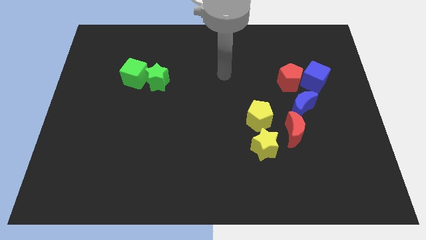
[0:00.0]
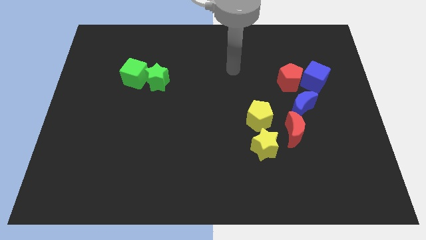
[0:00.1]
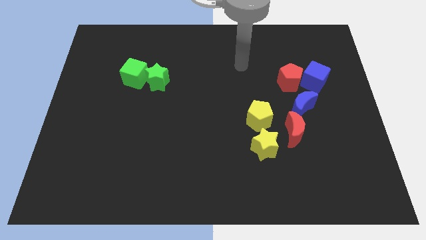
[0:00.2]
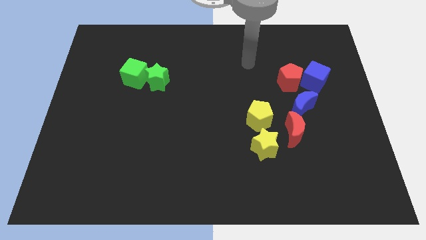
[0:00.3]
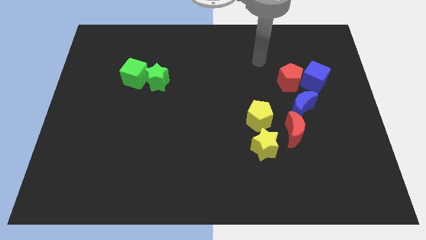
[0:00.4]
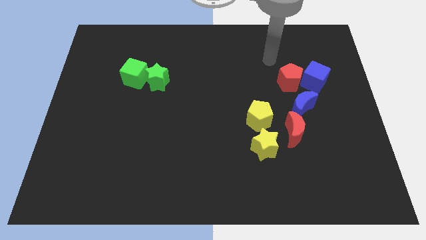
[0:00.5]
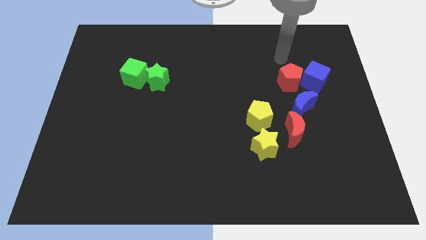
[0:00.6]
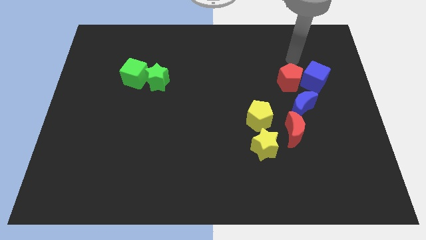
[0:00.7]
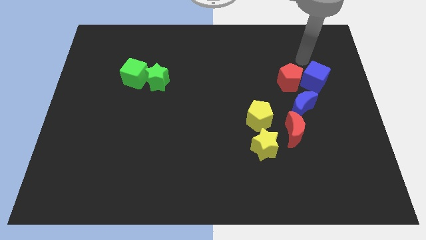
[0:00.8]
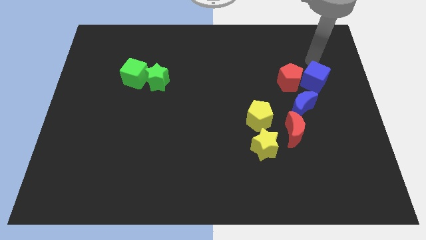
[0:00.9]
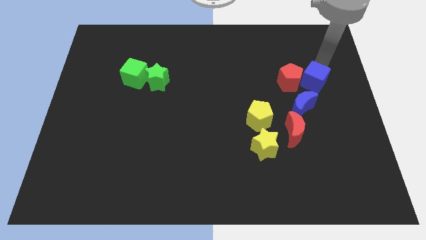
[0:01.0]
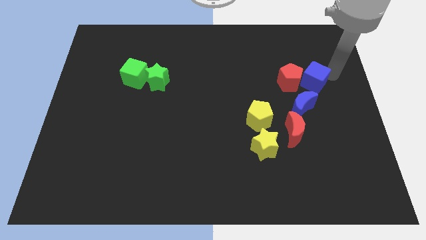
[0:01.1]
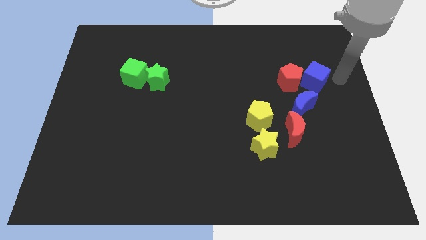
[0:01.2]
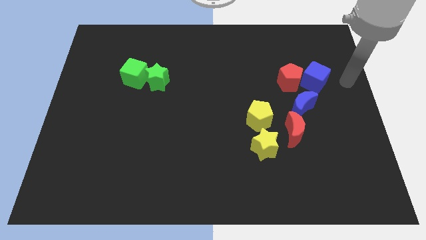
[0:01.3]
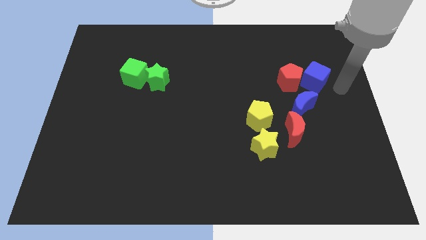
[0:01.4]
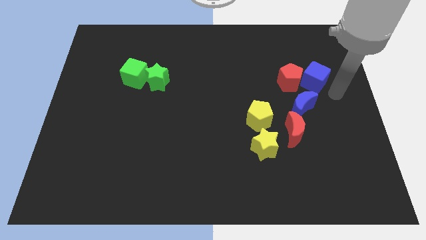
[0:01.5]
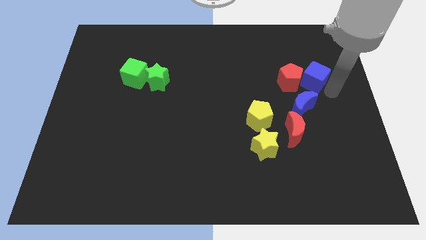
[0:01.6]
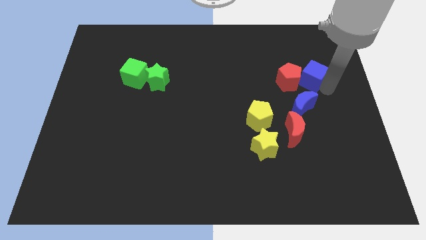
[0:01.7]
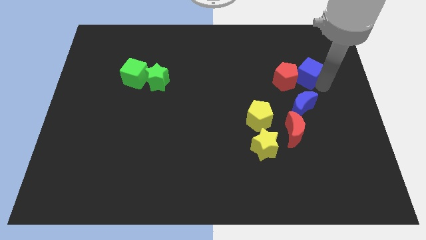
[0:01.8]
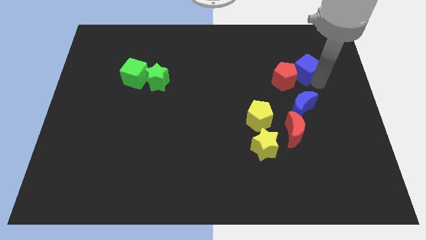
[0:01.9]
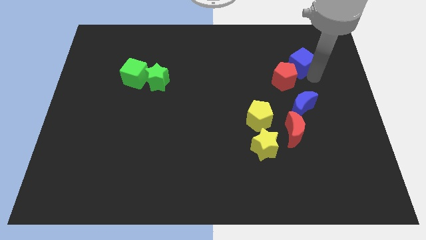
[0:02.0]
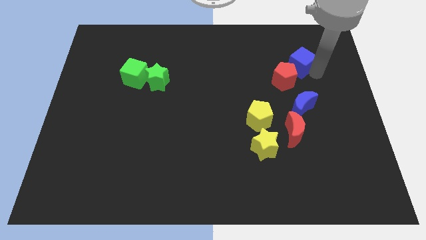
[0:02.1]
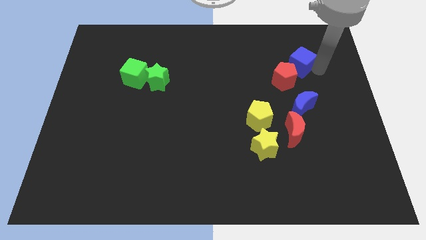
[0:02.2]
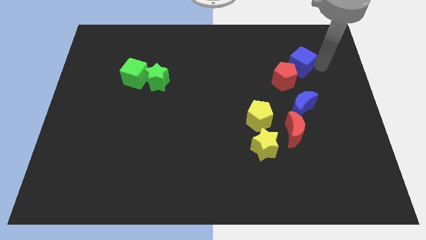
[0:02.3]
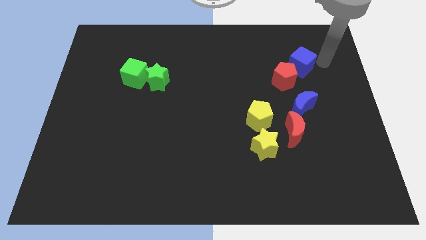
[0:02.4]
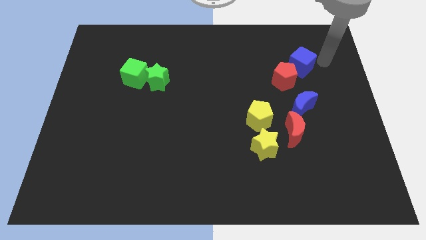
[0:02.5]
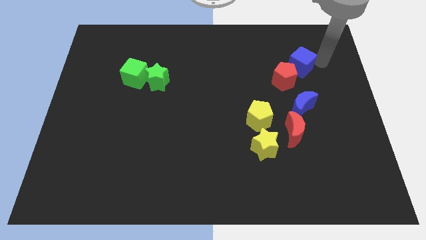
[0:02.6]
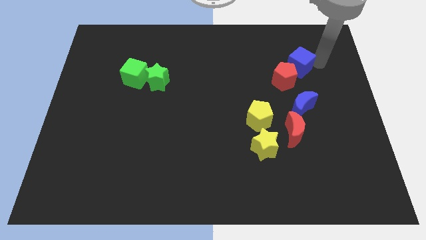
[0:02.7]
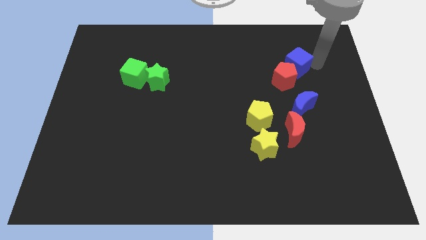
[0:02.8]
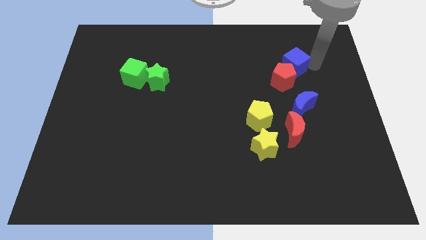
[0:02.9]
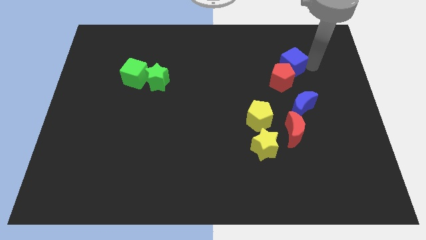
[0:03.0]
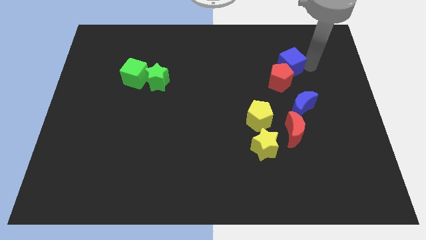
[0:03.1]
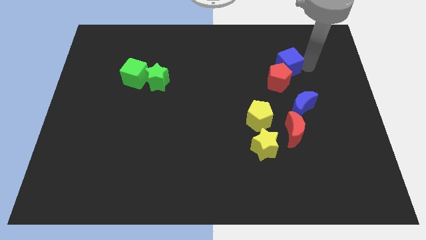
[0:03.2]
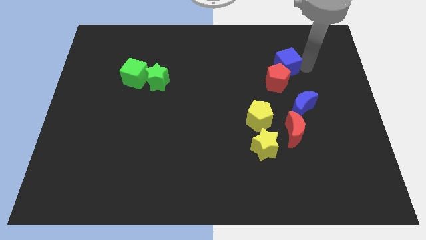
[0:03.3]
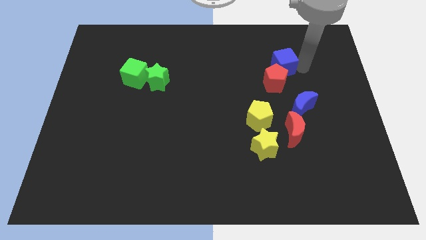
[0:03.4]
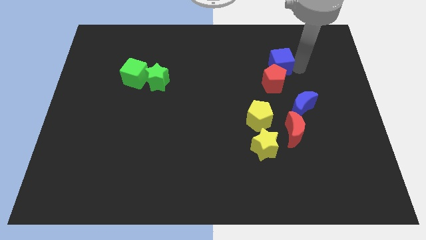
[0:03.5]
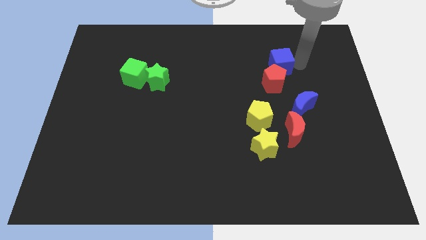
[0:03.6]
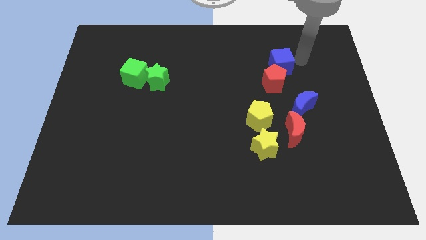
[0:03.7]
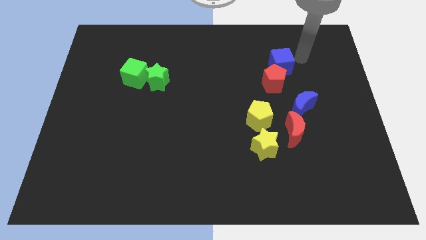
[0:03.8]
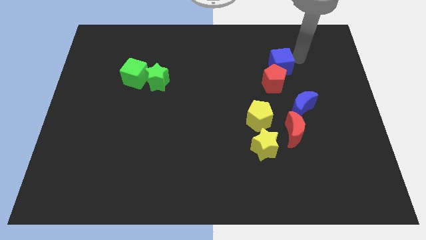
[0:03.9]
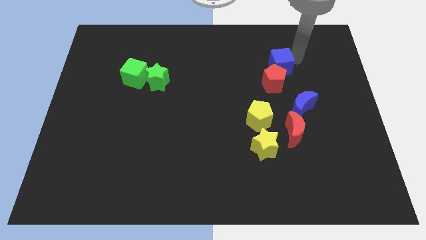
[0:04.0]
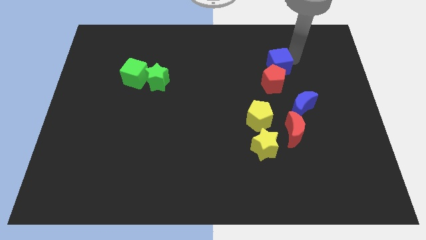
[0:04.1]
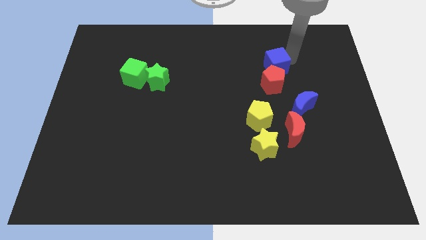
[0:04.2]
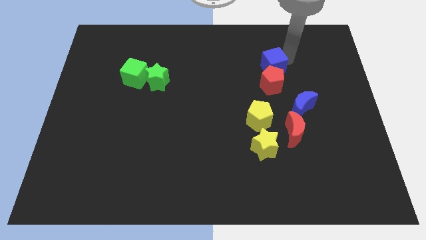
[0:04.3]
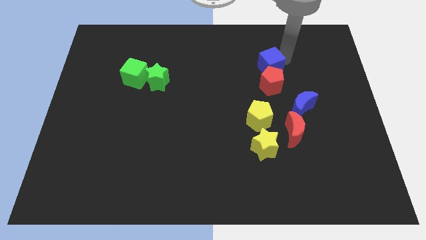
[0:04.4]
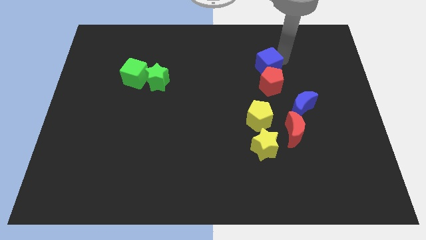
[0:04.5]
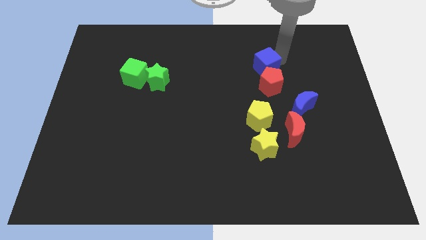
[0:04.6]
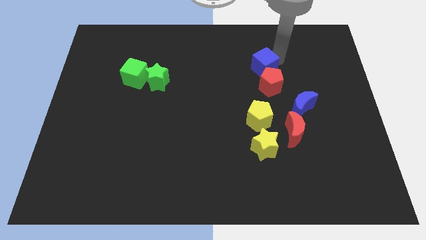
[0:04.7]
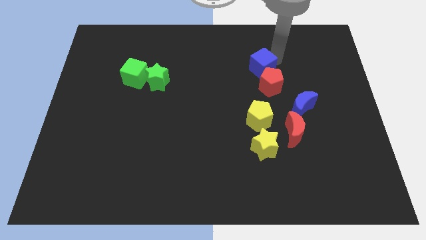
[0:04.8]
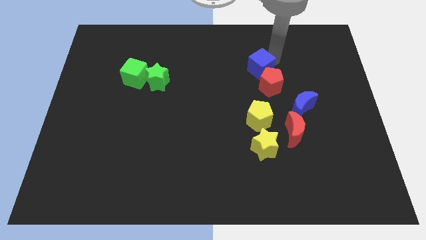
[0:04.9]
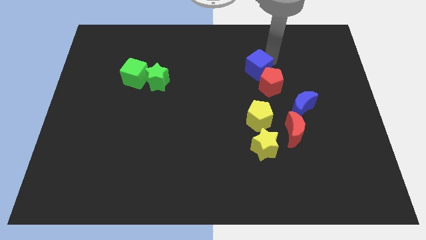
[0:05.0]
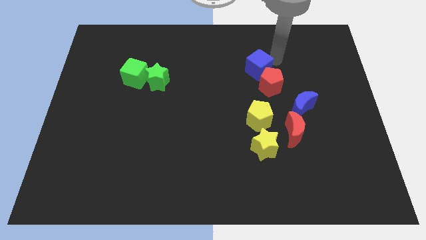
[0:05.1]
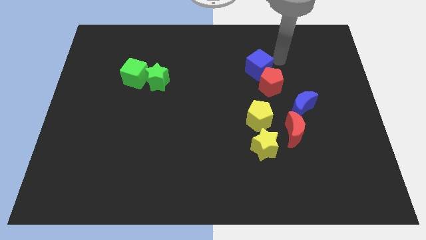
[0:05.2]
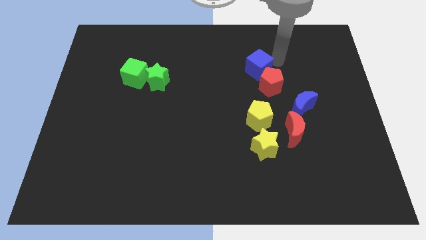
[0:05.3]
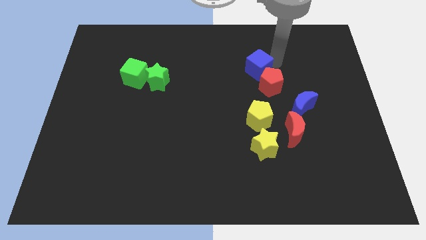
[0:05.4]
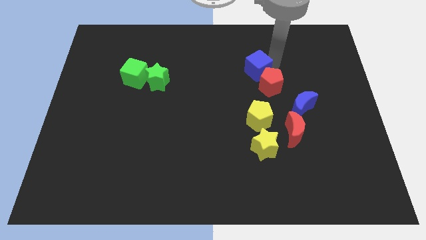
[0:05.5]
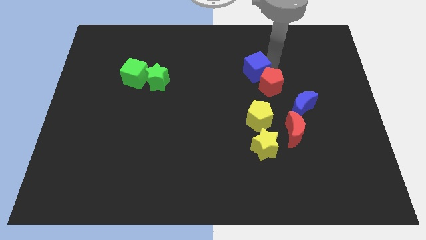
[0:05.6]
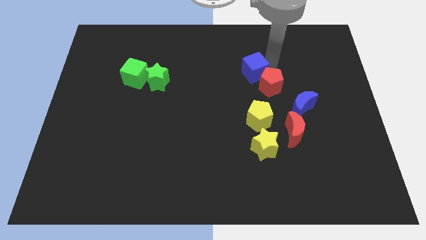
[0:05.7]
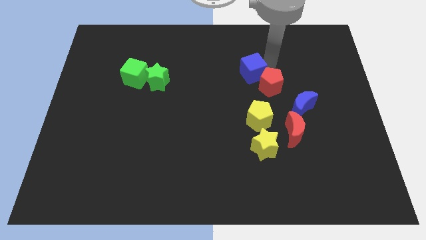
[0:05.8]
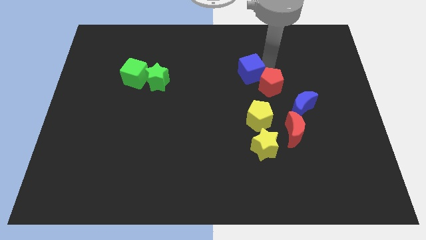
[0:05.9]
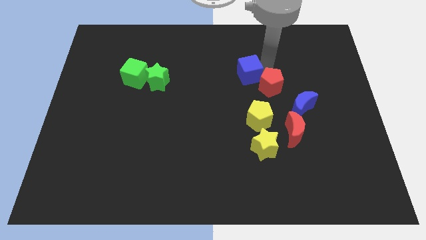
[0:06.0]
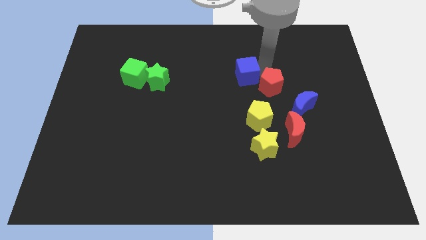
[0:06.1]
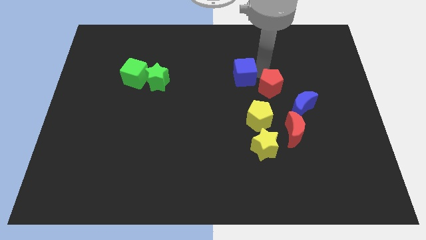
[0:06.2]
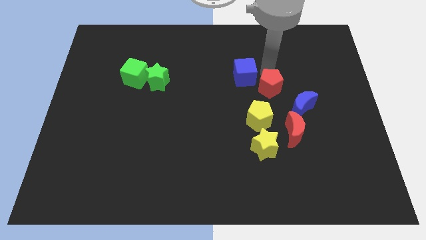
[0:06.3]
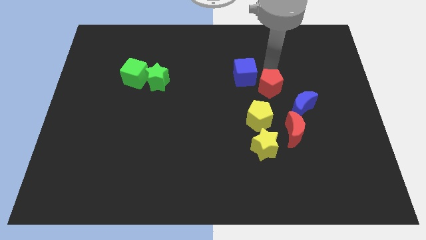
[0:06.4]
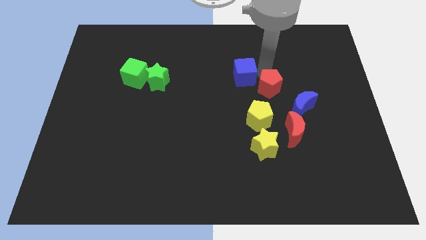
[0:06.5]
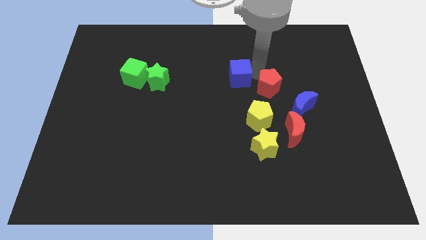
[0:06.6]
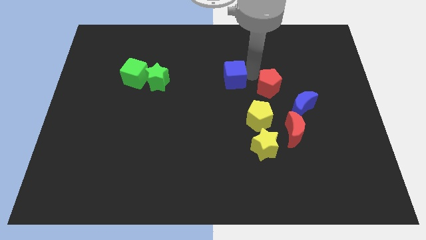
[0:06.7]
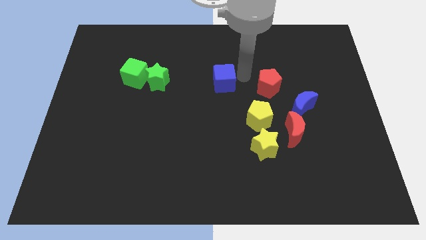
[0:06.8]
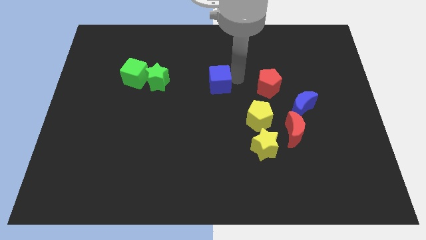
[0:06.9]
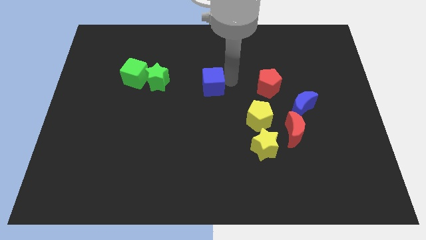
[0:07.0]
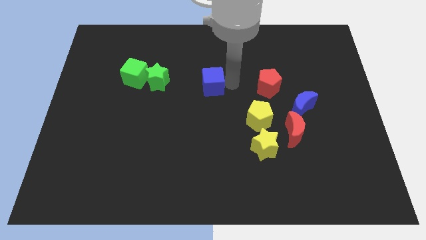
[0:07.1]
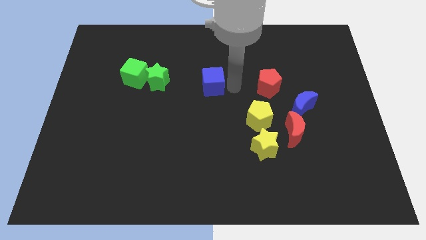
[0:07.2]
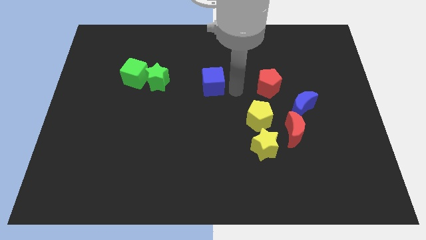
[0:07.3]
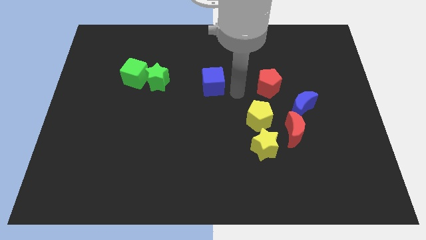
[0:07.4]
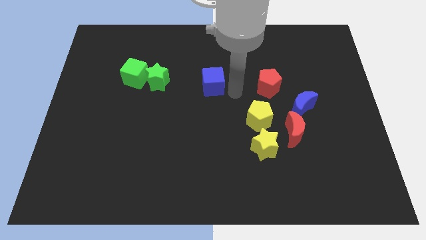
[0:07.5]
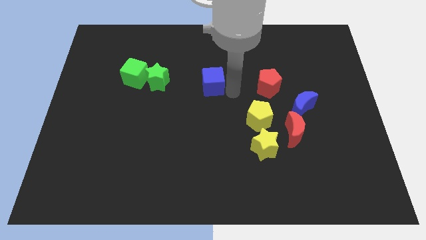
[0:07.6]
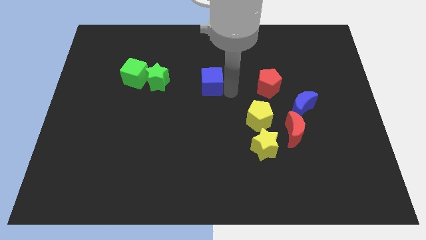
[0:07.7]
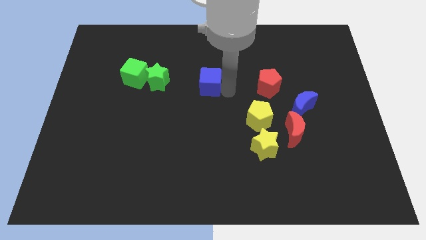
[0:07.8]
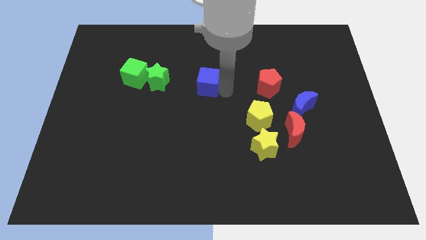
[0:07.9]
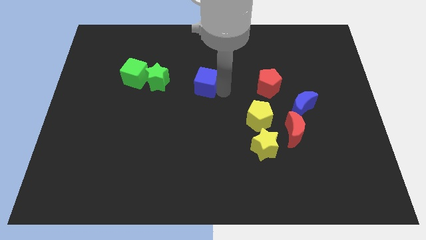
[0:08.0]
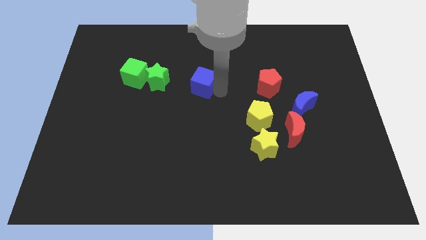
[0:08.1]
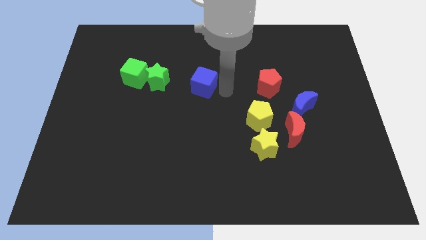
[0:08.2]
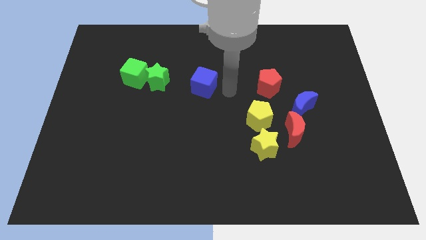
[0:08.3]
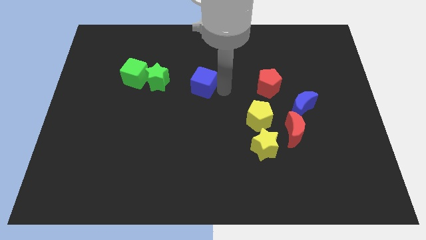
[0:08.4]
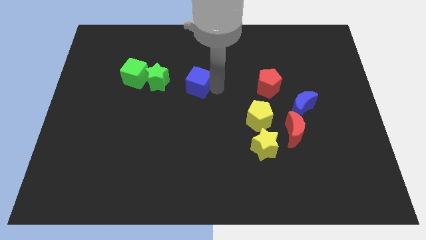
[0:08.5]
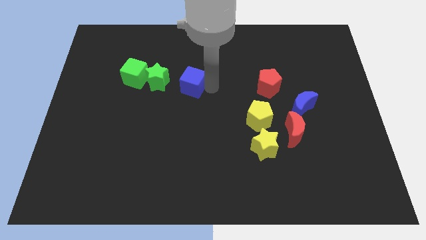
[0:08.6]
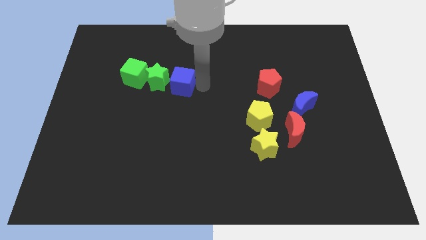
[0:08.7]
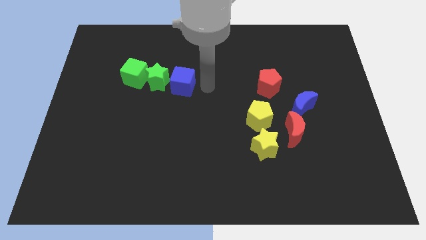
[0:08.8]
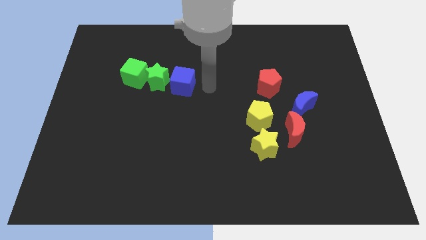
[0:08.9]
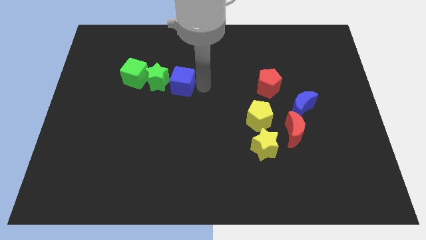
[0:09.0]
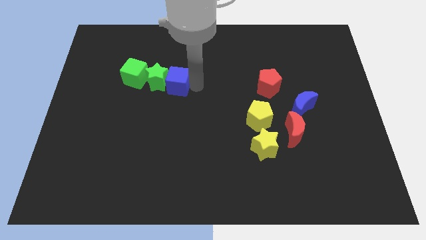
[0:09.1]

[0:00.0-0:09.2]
move the blue cube to the green star
